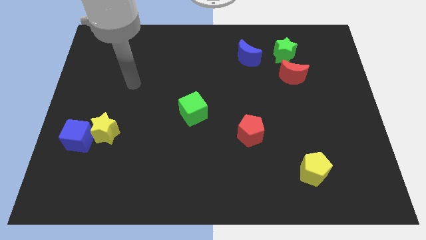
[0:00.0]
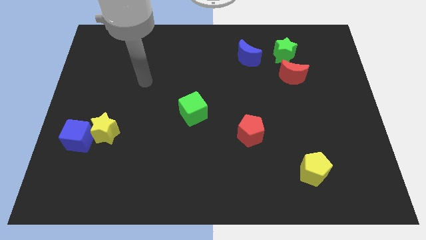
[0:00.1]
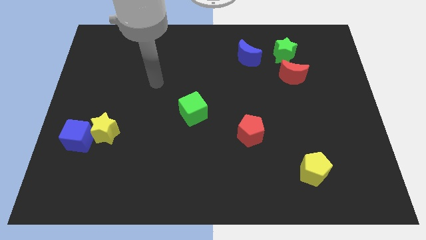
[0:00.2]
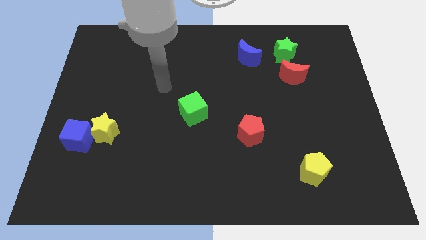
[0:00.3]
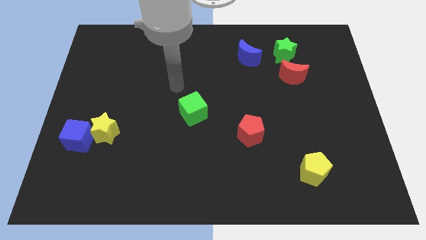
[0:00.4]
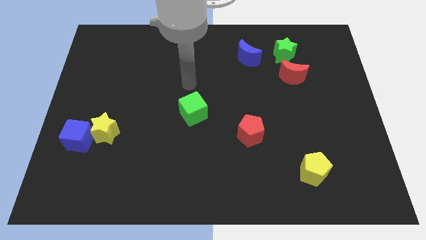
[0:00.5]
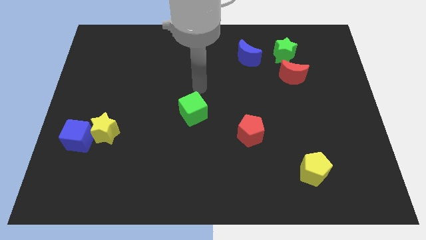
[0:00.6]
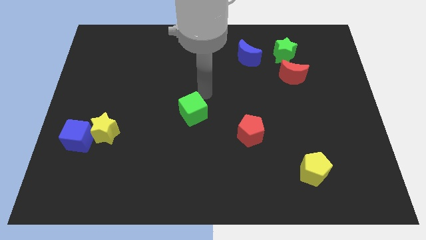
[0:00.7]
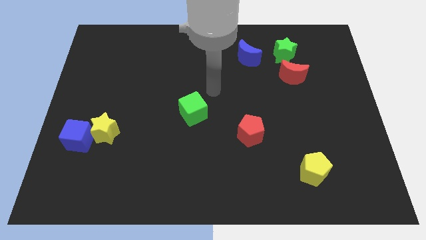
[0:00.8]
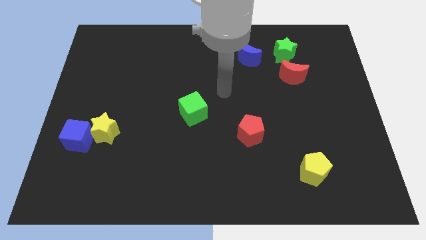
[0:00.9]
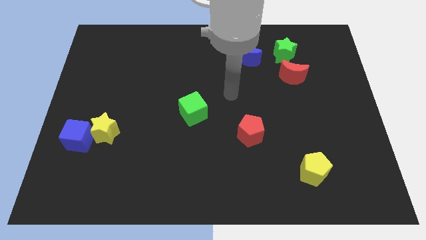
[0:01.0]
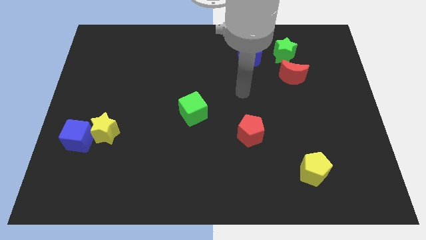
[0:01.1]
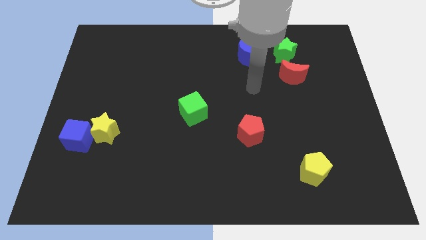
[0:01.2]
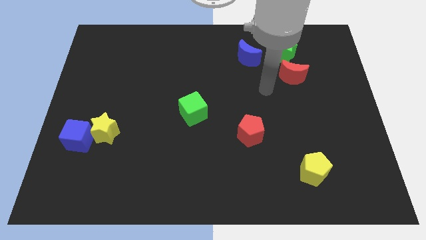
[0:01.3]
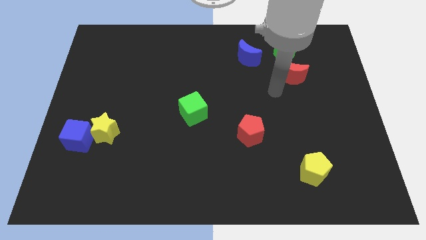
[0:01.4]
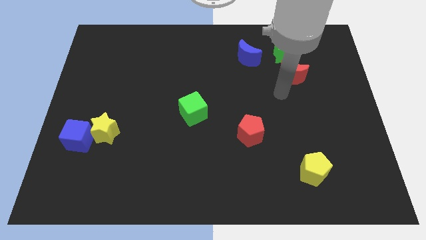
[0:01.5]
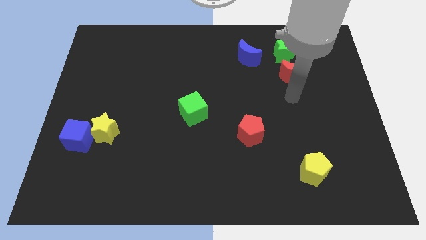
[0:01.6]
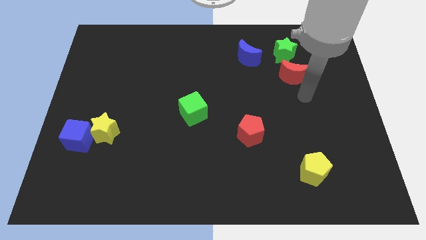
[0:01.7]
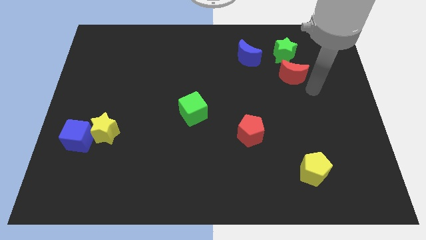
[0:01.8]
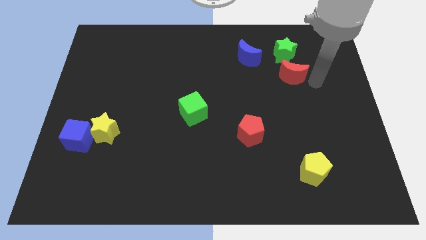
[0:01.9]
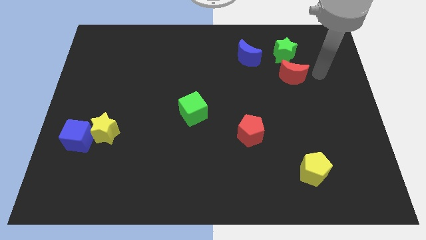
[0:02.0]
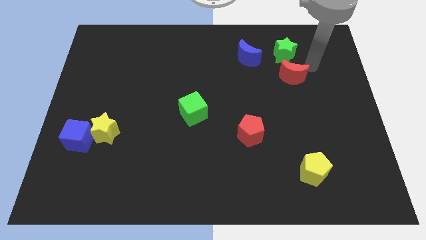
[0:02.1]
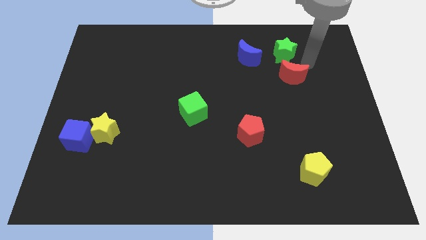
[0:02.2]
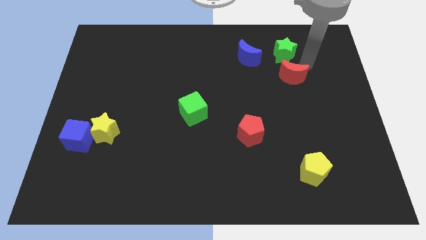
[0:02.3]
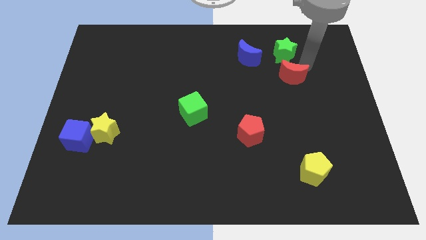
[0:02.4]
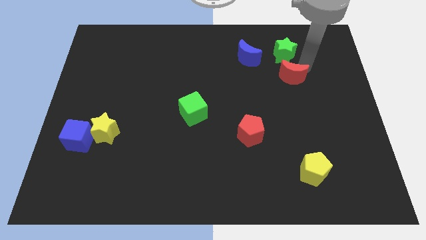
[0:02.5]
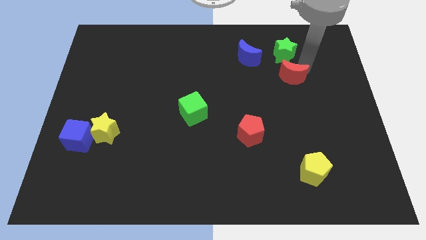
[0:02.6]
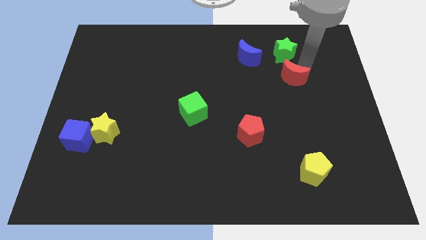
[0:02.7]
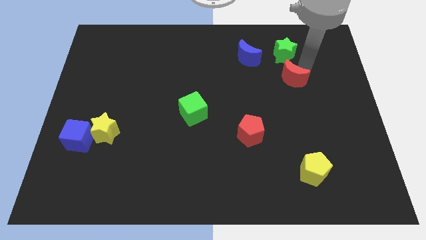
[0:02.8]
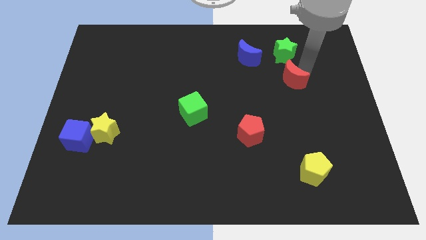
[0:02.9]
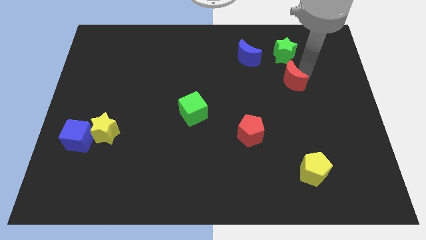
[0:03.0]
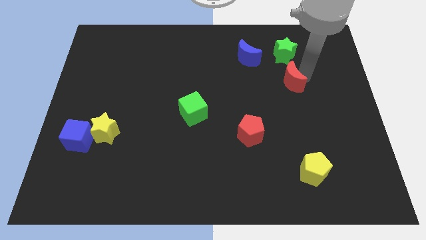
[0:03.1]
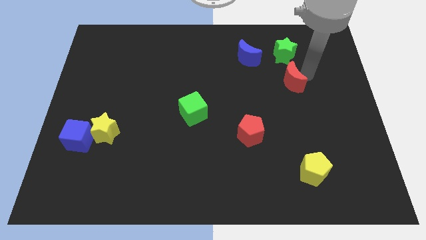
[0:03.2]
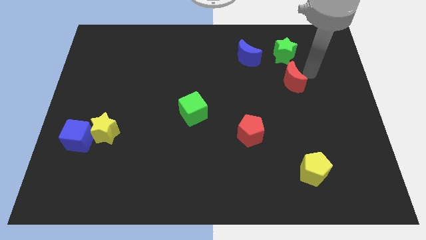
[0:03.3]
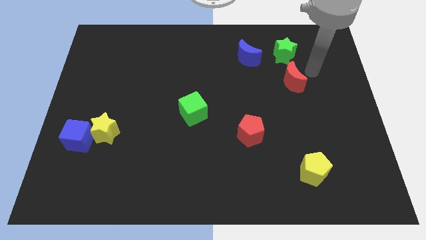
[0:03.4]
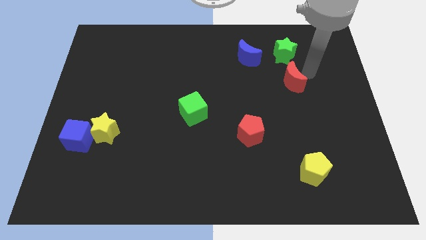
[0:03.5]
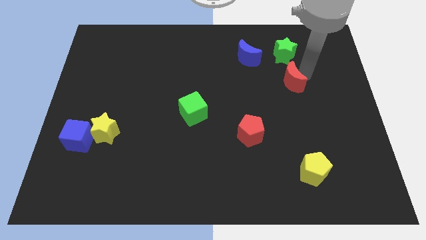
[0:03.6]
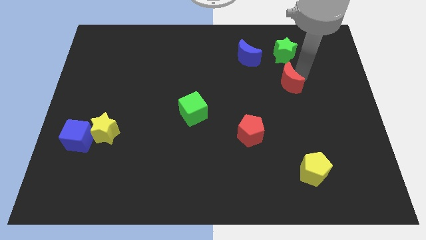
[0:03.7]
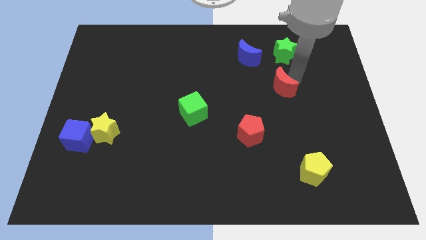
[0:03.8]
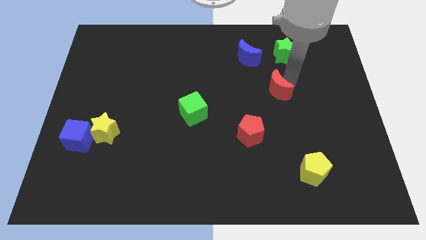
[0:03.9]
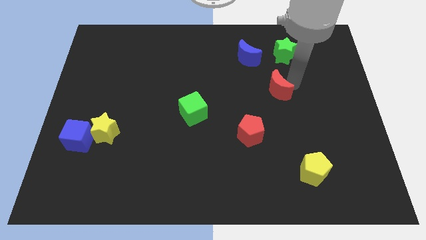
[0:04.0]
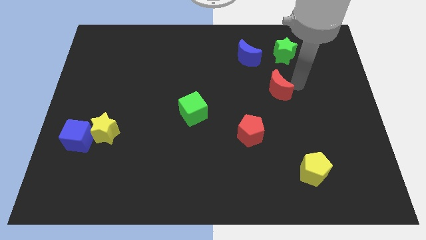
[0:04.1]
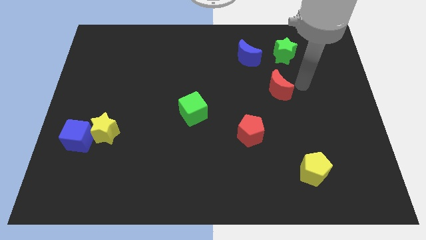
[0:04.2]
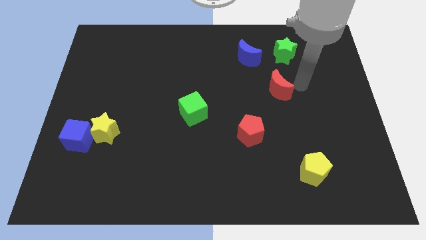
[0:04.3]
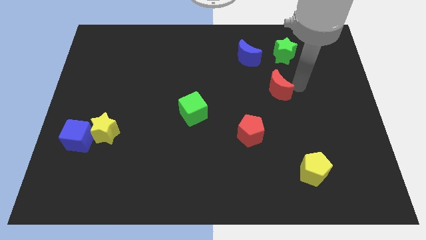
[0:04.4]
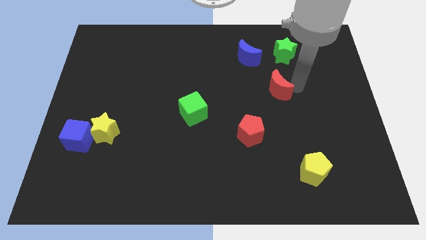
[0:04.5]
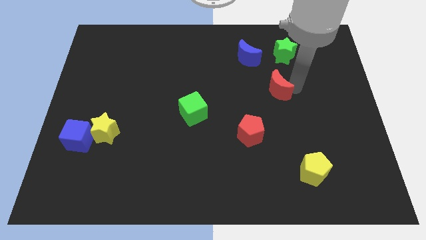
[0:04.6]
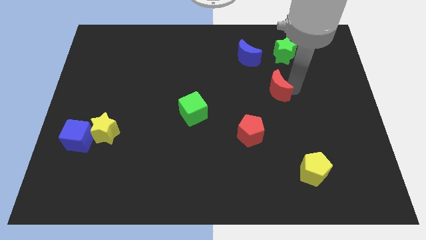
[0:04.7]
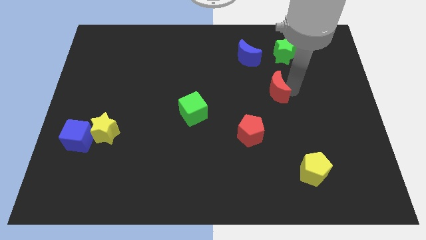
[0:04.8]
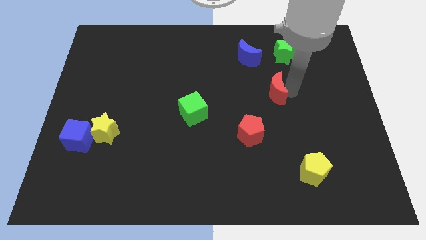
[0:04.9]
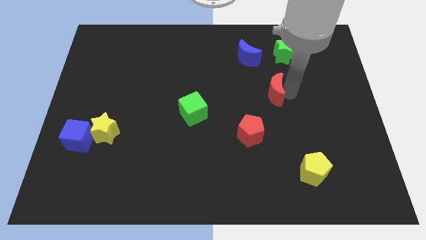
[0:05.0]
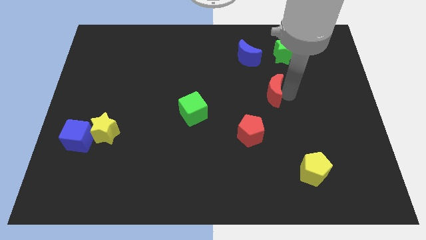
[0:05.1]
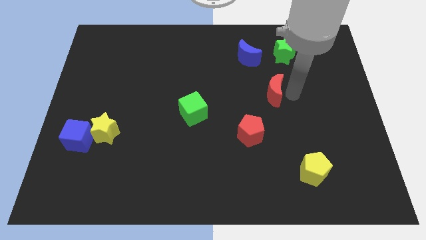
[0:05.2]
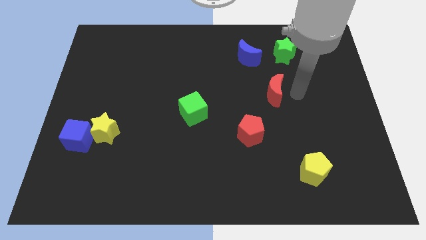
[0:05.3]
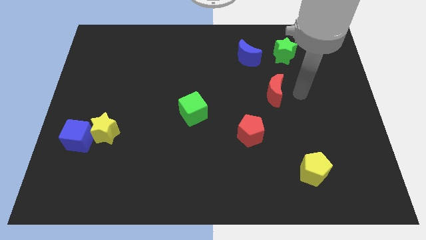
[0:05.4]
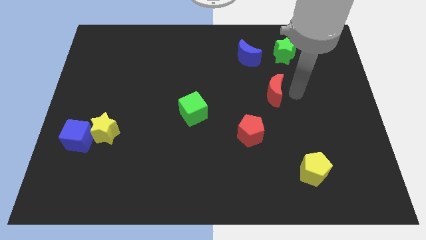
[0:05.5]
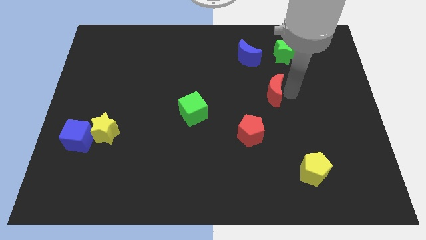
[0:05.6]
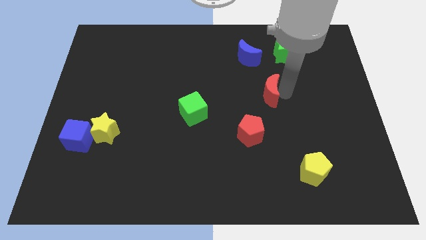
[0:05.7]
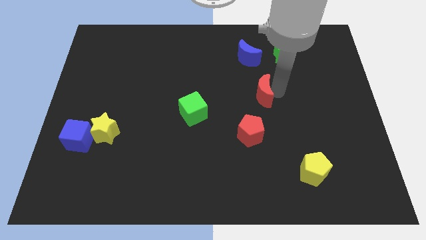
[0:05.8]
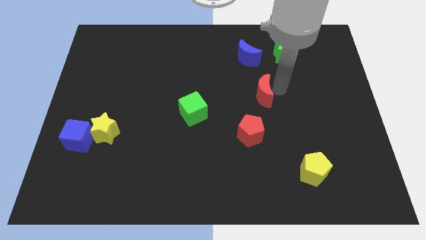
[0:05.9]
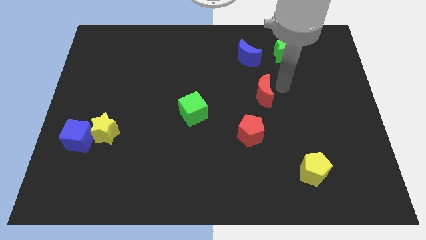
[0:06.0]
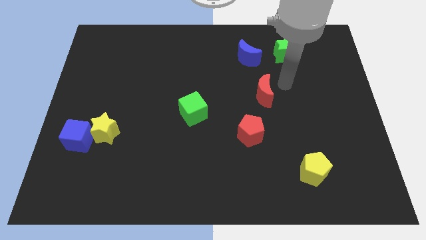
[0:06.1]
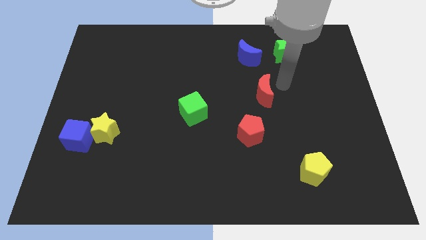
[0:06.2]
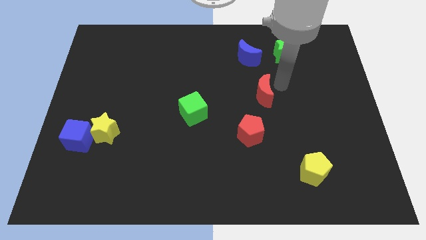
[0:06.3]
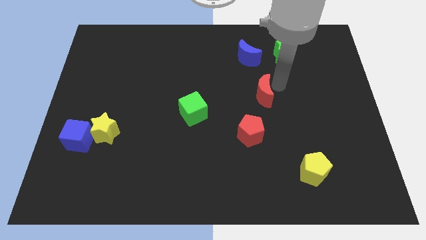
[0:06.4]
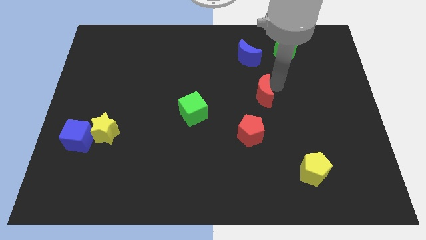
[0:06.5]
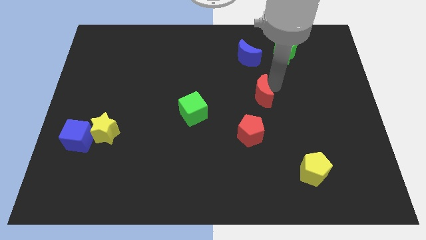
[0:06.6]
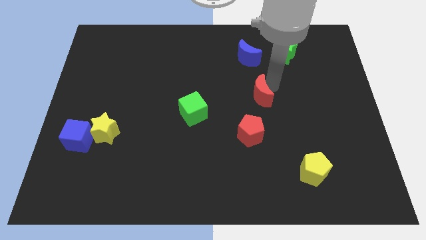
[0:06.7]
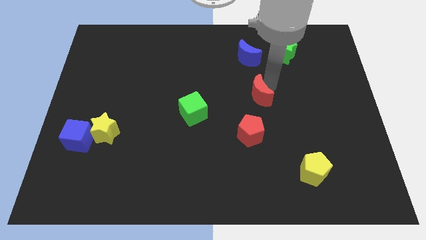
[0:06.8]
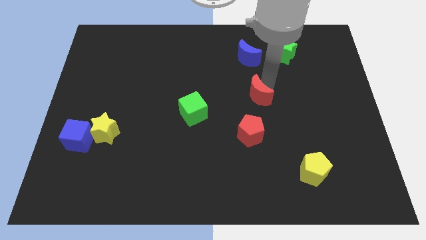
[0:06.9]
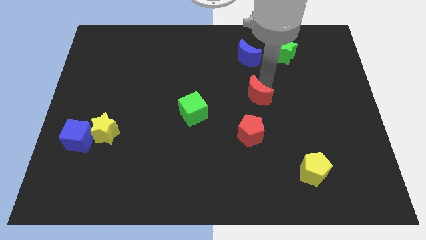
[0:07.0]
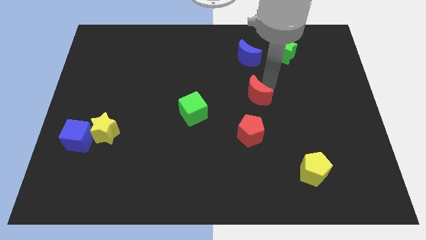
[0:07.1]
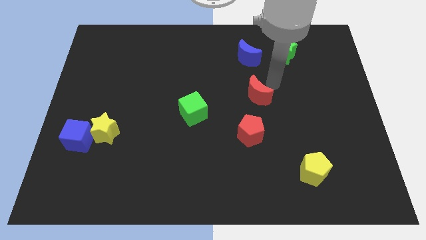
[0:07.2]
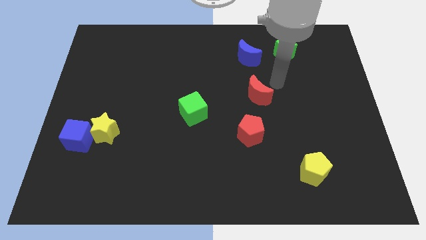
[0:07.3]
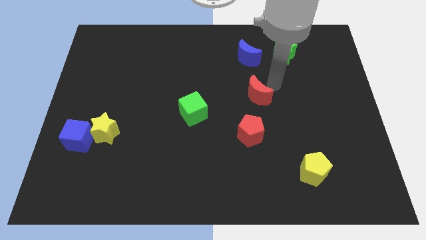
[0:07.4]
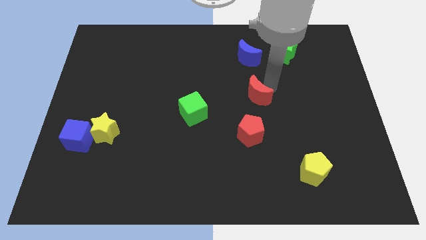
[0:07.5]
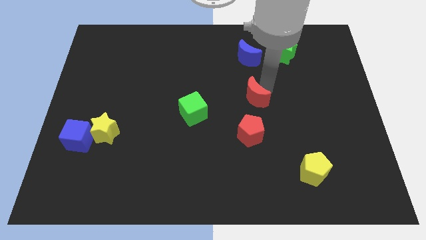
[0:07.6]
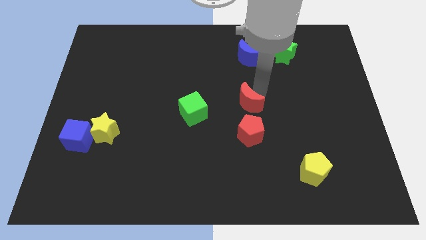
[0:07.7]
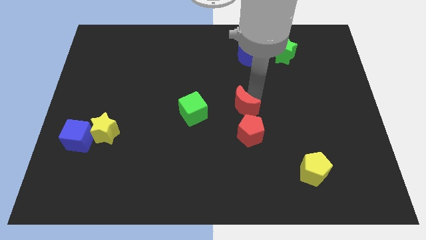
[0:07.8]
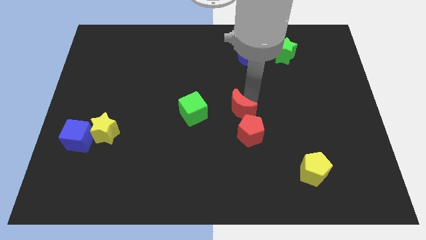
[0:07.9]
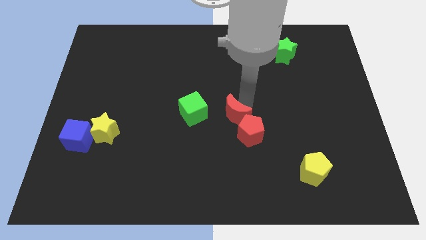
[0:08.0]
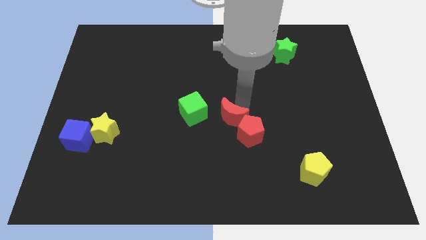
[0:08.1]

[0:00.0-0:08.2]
slide the red moon down and to the left diagonally
